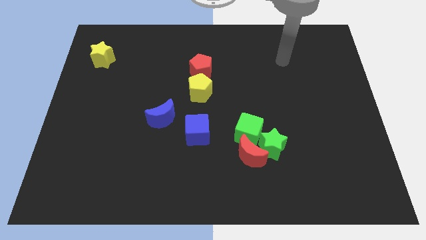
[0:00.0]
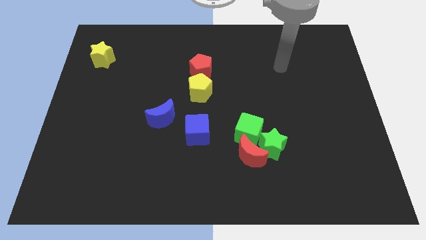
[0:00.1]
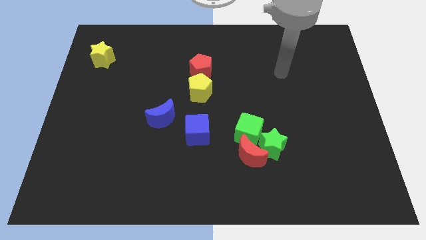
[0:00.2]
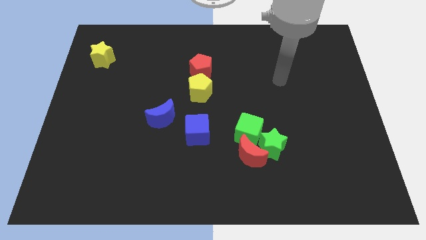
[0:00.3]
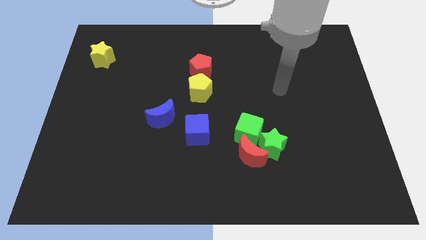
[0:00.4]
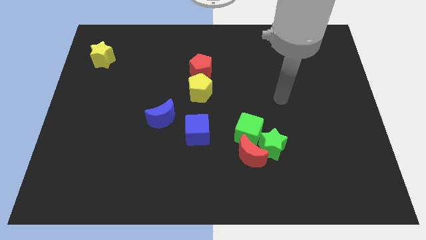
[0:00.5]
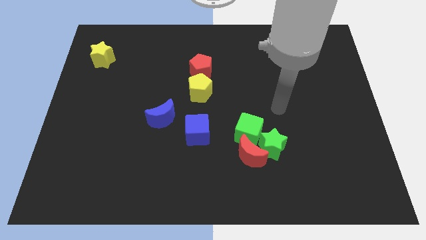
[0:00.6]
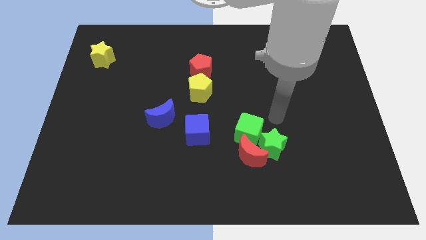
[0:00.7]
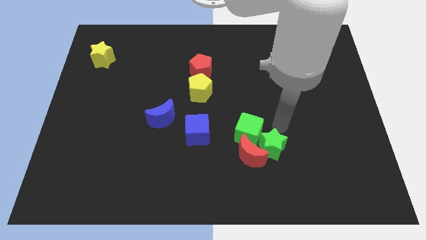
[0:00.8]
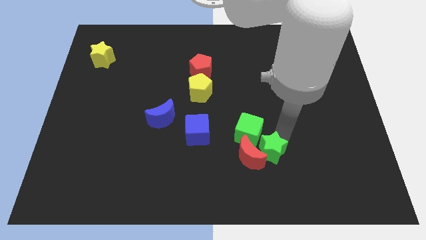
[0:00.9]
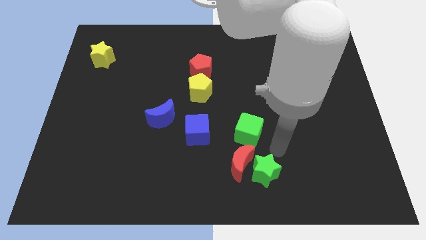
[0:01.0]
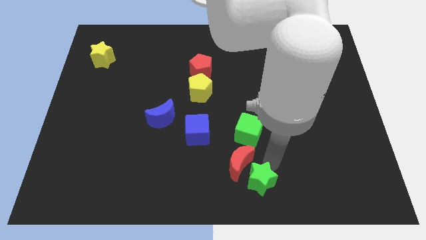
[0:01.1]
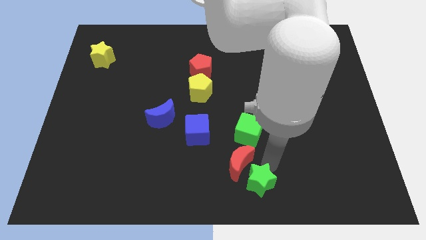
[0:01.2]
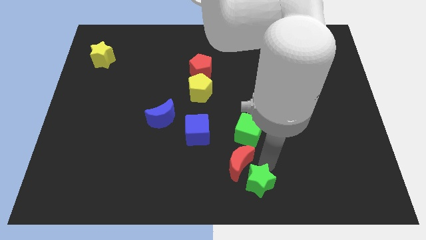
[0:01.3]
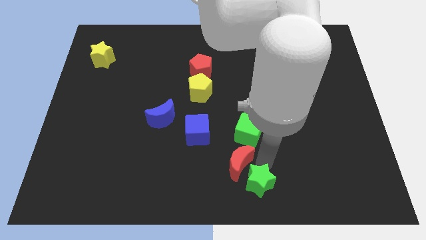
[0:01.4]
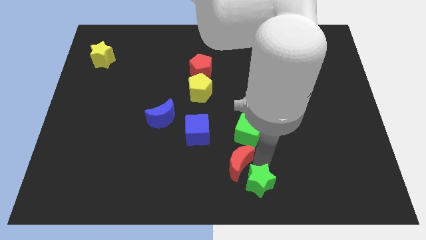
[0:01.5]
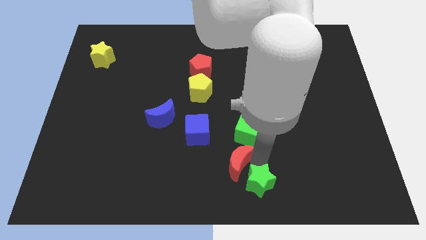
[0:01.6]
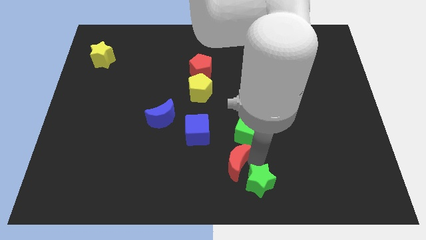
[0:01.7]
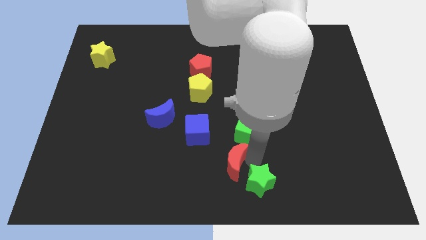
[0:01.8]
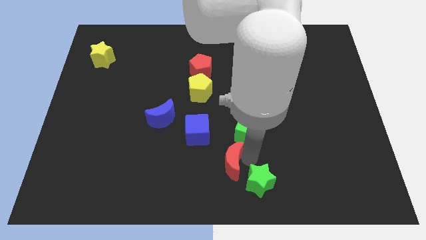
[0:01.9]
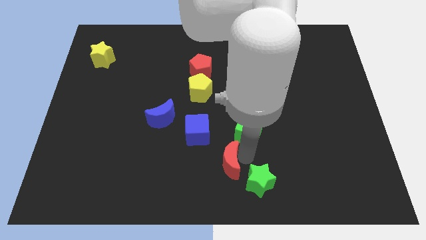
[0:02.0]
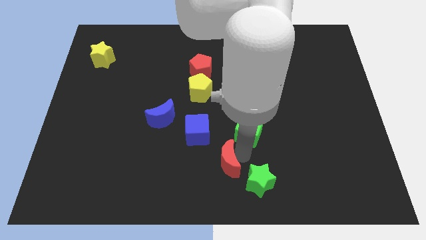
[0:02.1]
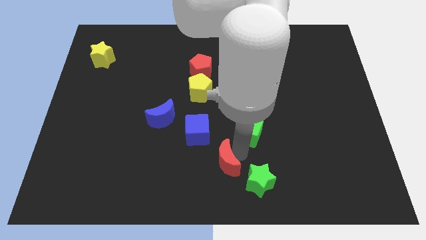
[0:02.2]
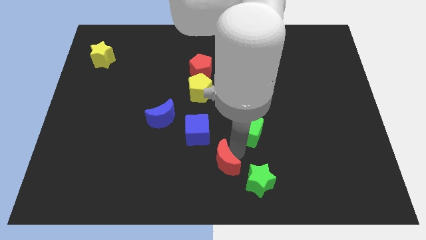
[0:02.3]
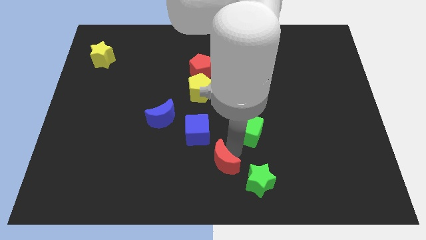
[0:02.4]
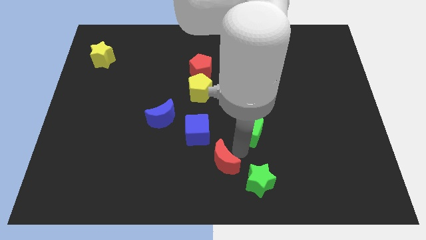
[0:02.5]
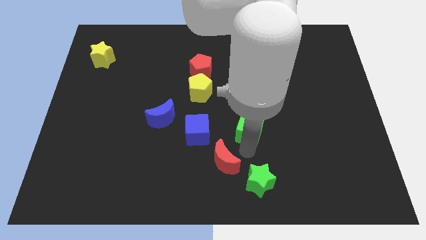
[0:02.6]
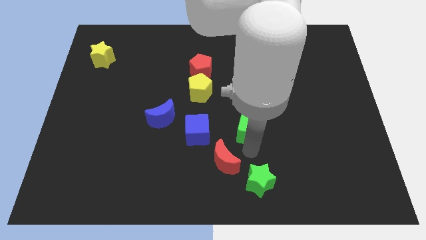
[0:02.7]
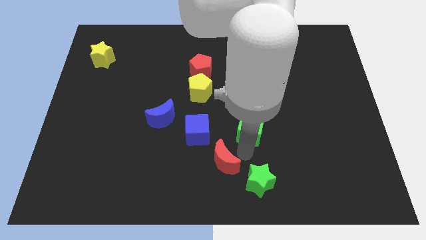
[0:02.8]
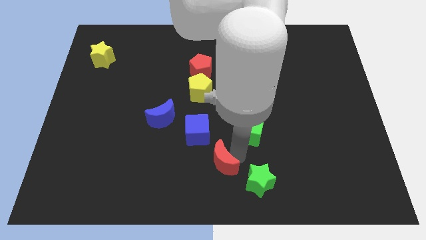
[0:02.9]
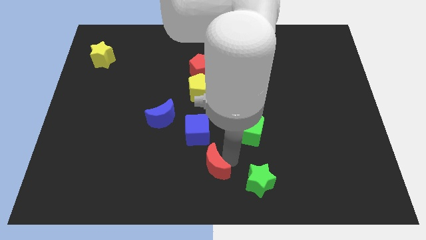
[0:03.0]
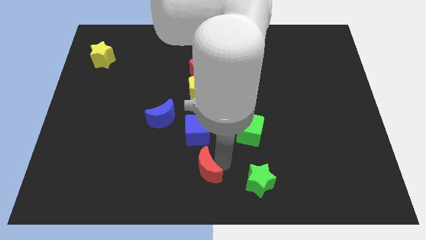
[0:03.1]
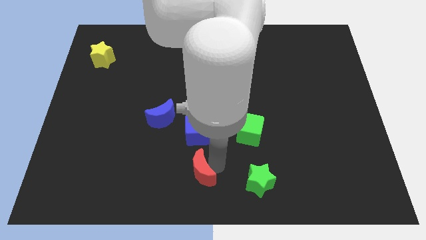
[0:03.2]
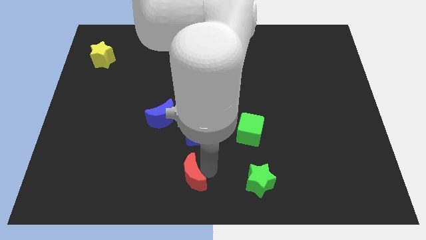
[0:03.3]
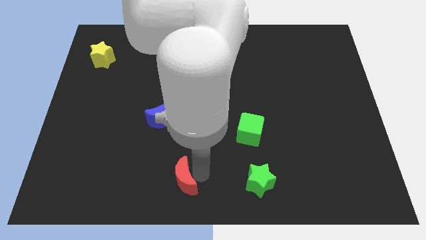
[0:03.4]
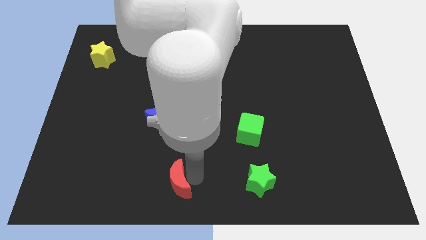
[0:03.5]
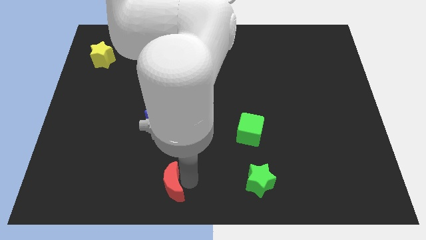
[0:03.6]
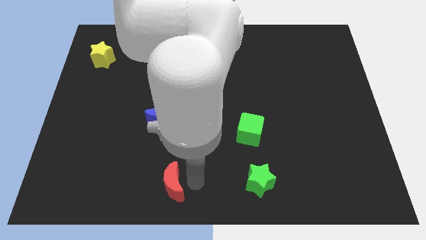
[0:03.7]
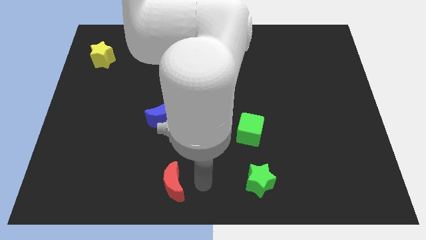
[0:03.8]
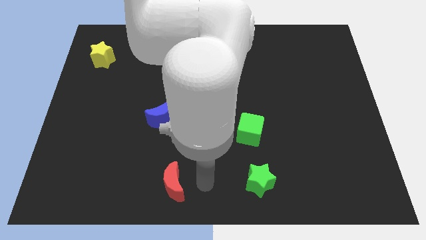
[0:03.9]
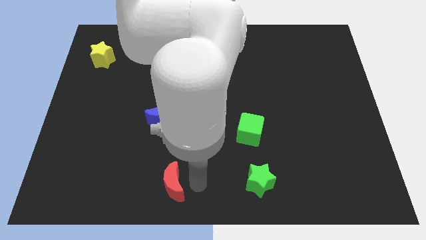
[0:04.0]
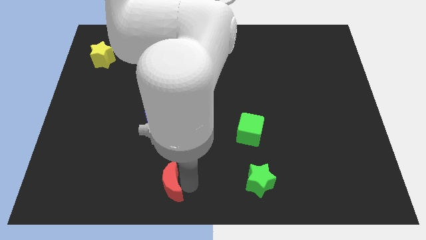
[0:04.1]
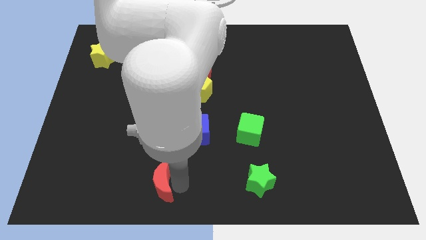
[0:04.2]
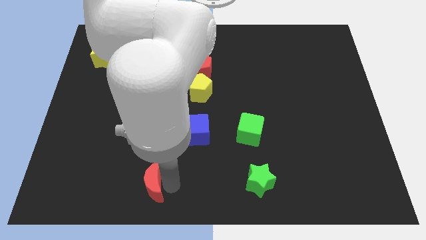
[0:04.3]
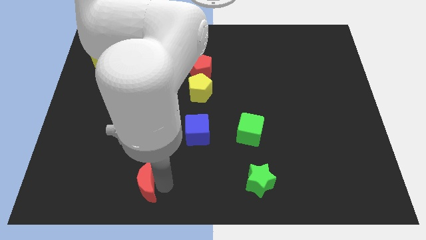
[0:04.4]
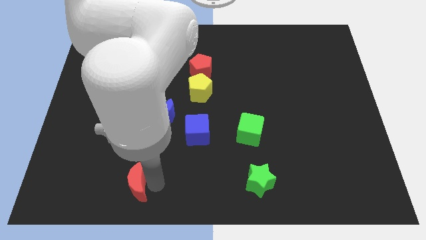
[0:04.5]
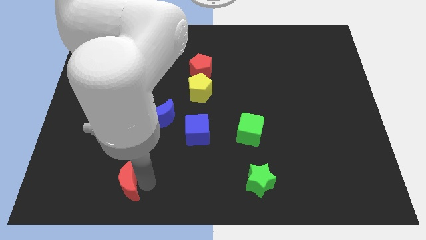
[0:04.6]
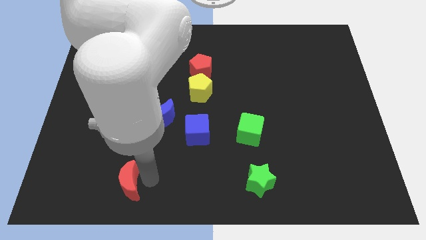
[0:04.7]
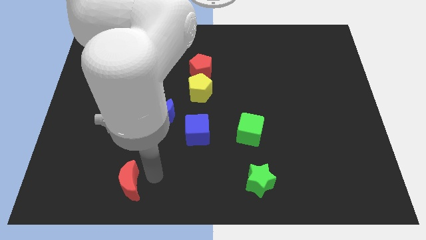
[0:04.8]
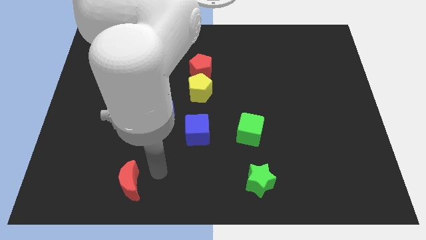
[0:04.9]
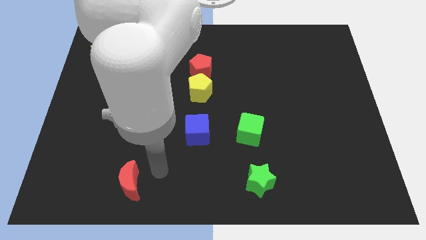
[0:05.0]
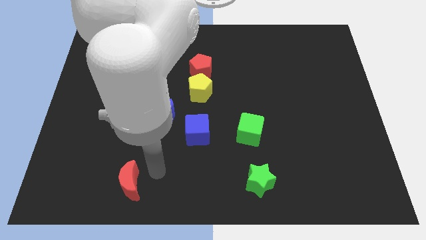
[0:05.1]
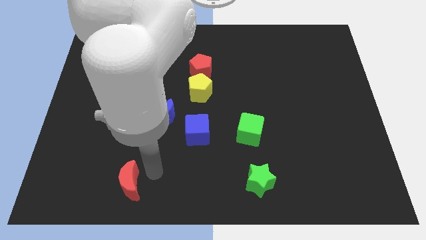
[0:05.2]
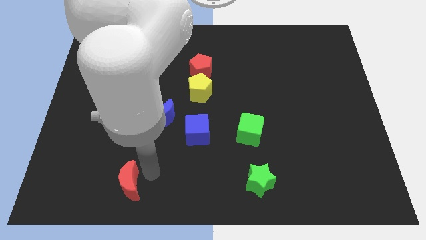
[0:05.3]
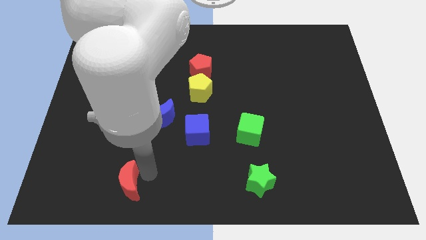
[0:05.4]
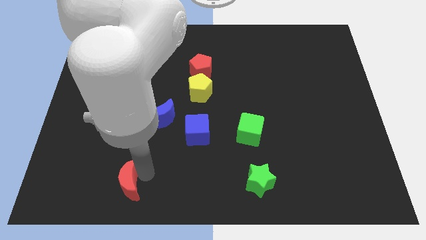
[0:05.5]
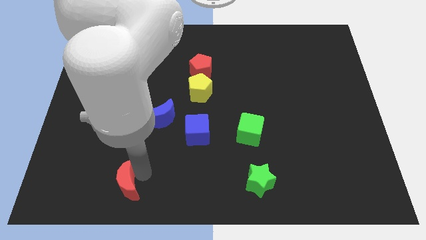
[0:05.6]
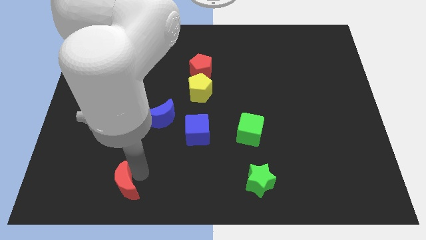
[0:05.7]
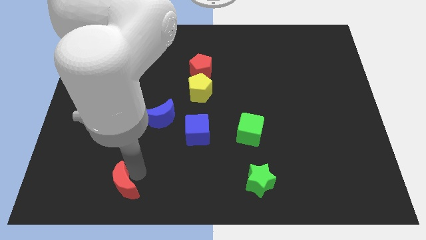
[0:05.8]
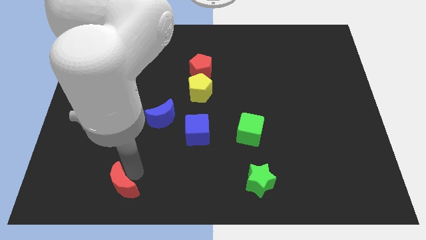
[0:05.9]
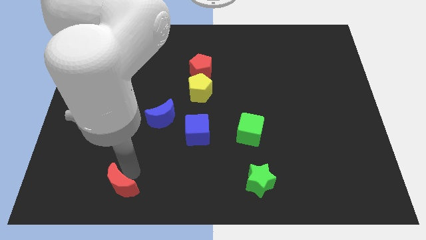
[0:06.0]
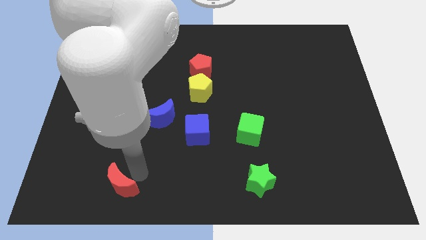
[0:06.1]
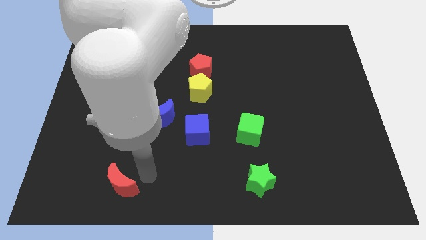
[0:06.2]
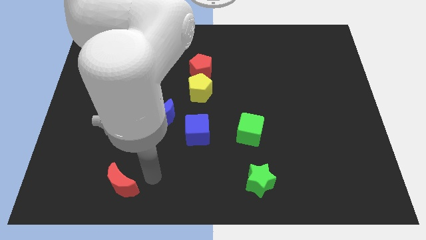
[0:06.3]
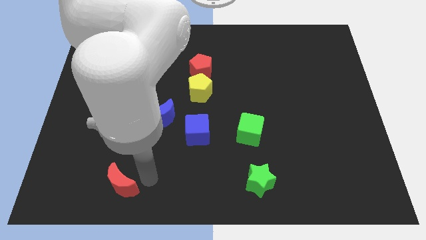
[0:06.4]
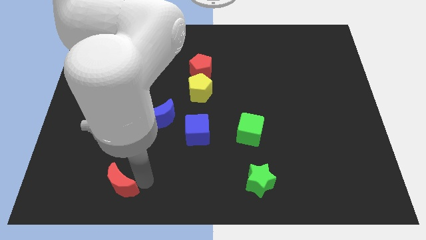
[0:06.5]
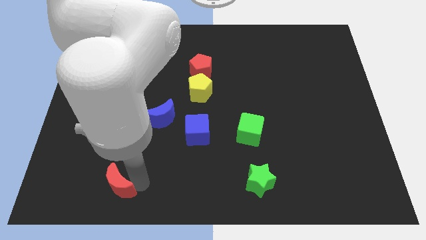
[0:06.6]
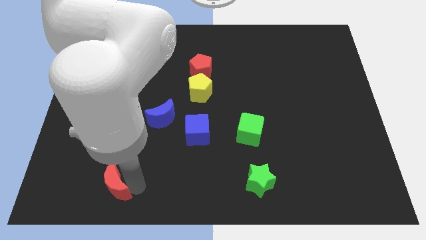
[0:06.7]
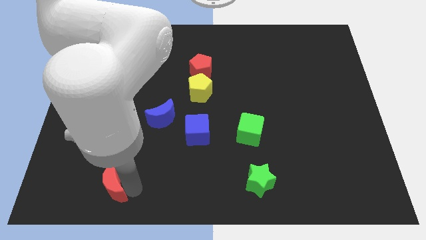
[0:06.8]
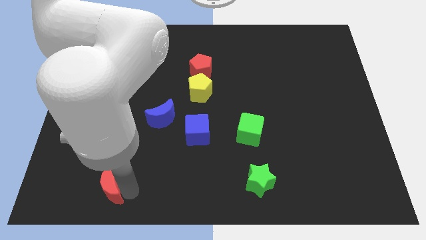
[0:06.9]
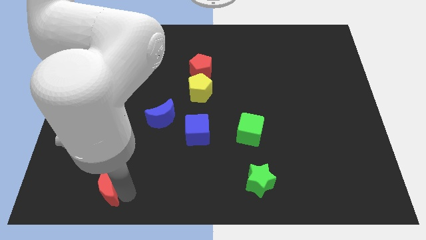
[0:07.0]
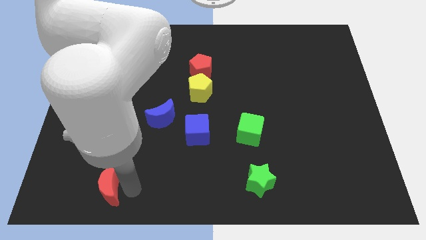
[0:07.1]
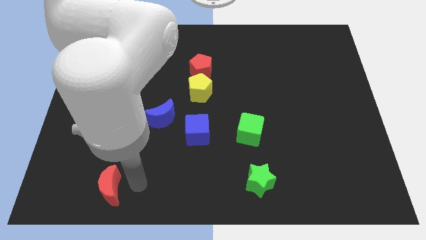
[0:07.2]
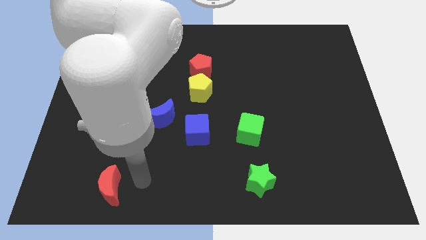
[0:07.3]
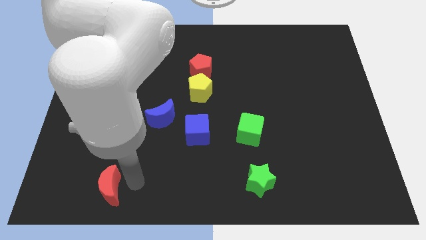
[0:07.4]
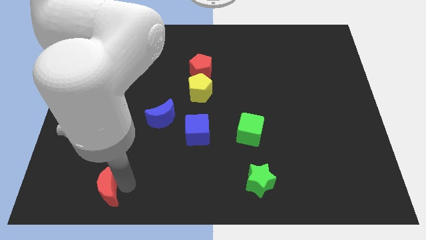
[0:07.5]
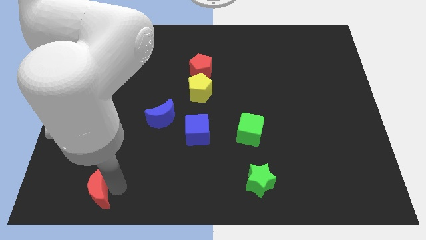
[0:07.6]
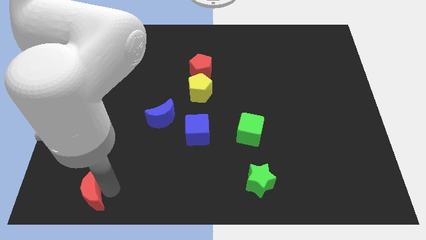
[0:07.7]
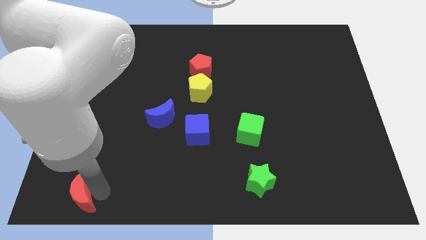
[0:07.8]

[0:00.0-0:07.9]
slide the red moon to the bottom left
